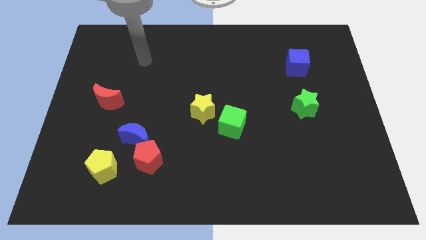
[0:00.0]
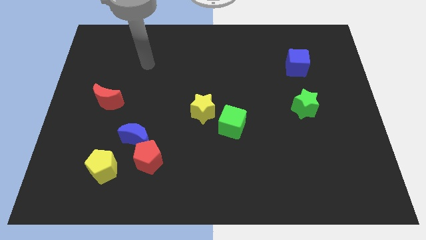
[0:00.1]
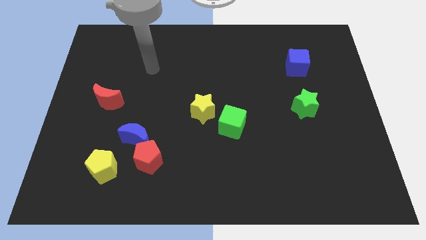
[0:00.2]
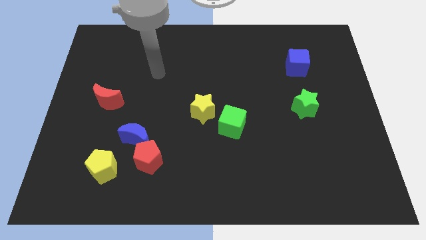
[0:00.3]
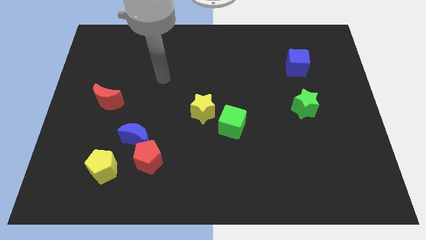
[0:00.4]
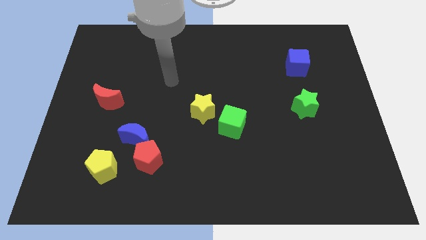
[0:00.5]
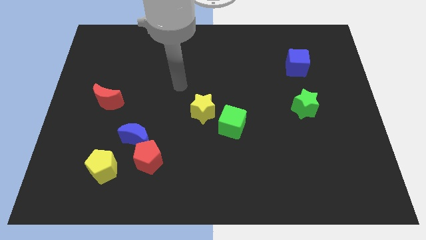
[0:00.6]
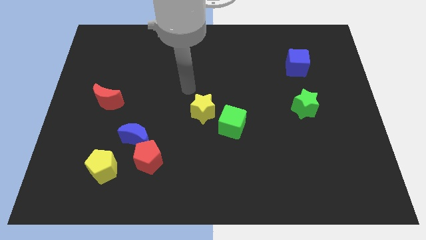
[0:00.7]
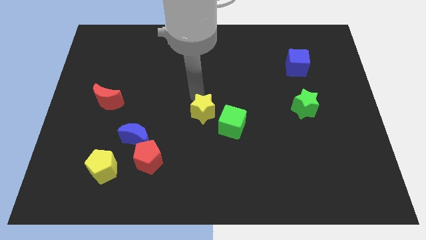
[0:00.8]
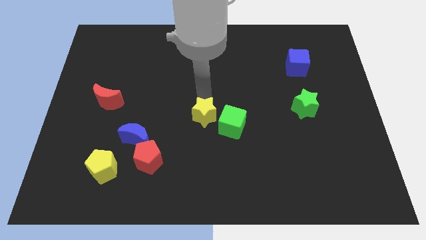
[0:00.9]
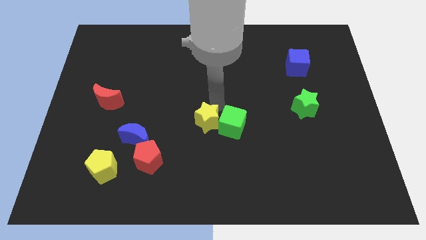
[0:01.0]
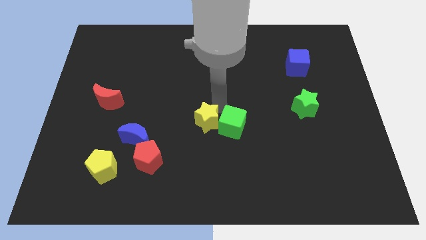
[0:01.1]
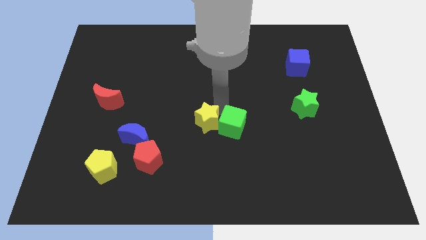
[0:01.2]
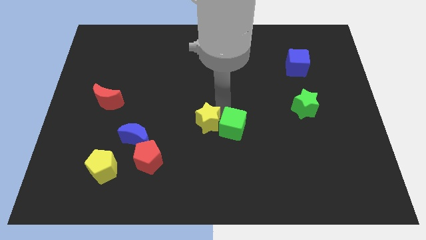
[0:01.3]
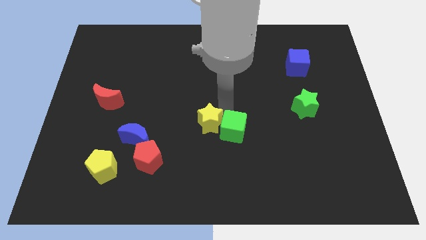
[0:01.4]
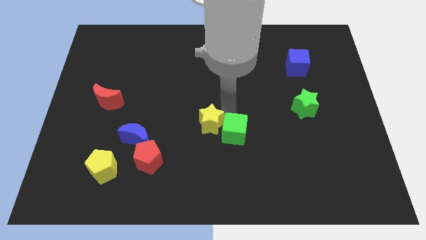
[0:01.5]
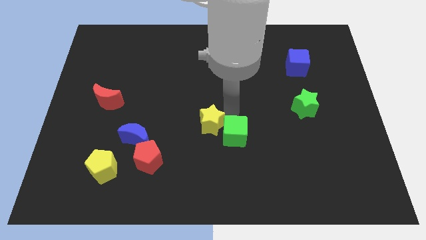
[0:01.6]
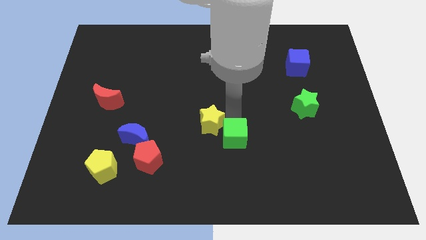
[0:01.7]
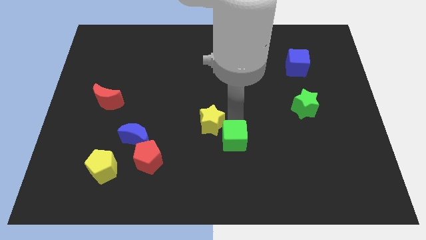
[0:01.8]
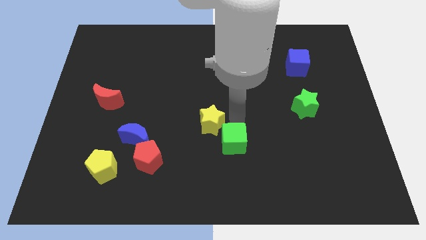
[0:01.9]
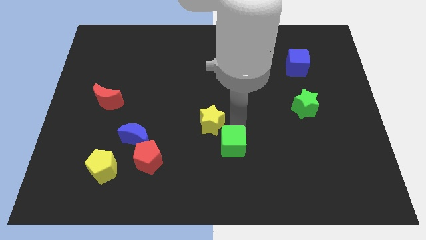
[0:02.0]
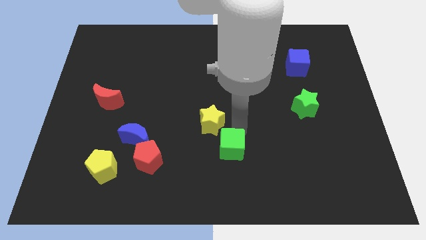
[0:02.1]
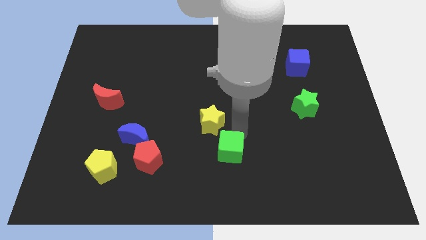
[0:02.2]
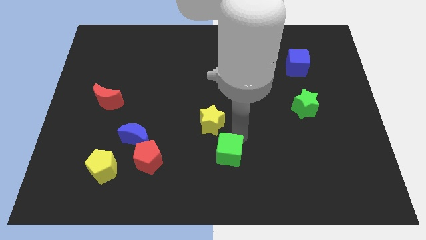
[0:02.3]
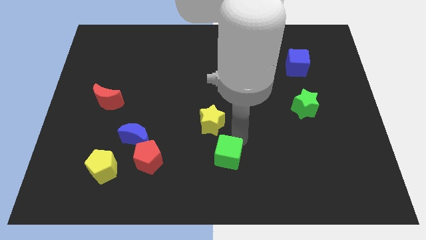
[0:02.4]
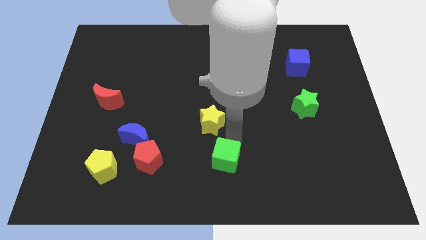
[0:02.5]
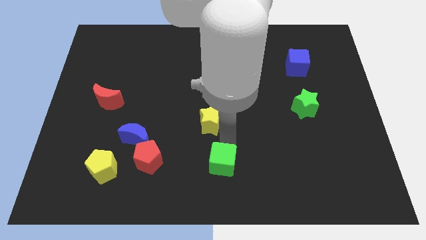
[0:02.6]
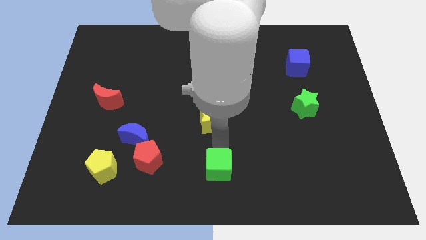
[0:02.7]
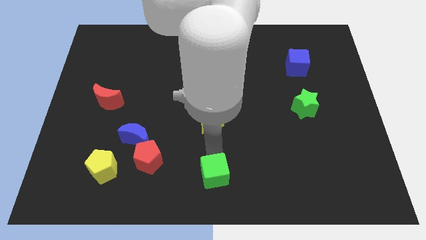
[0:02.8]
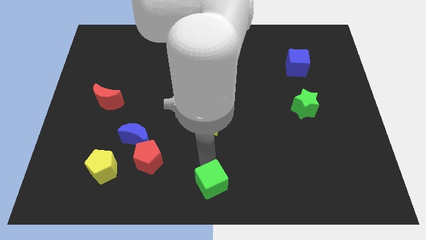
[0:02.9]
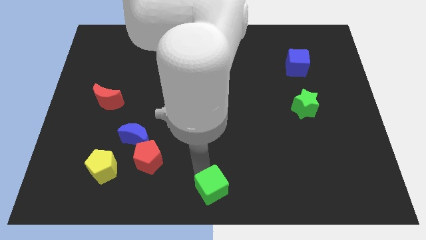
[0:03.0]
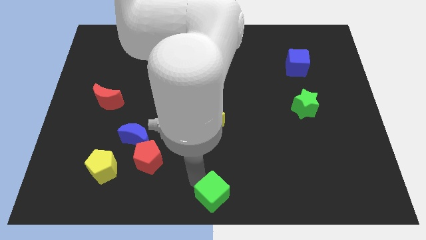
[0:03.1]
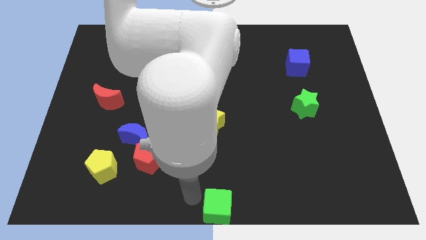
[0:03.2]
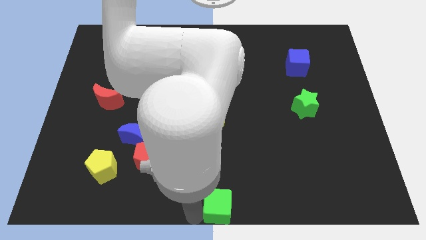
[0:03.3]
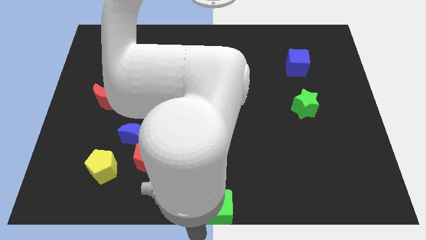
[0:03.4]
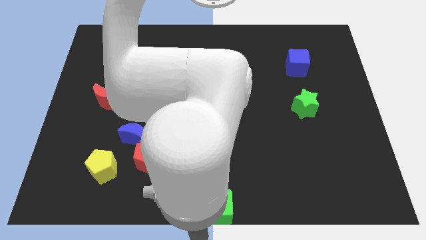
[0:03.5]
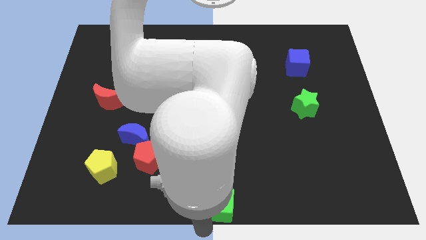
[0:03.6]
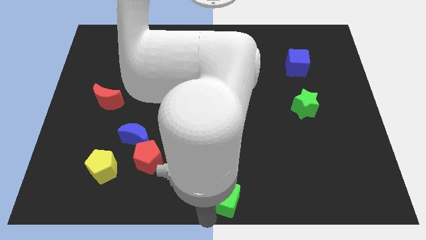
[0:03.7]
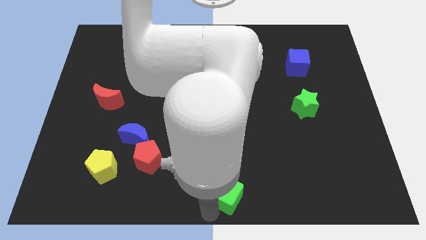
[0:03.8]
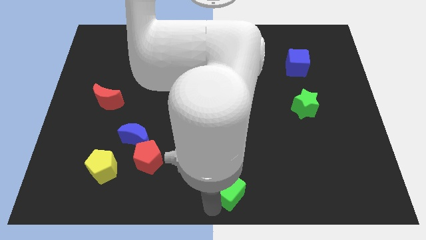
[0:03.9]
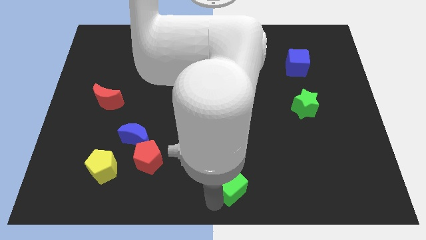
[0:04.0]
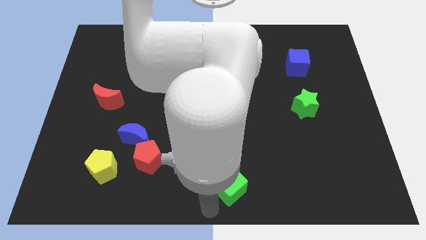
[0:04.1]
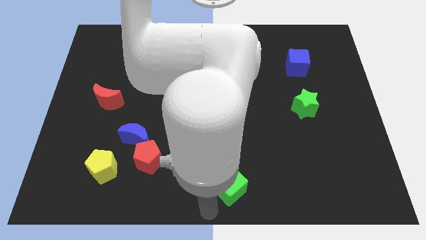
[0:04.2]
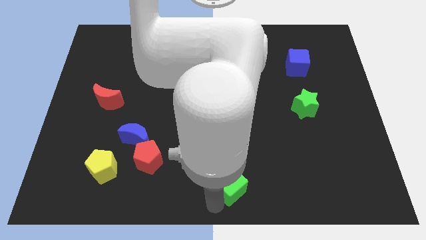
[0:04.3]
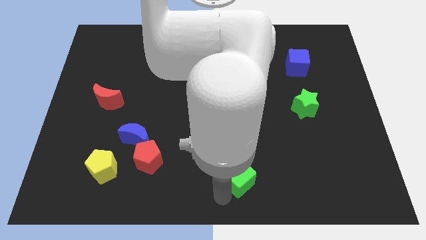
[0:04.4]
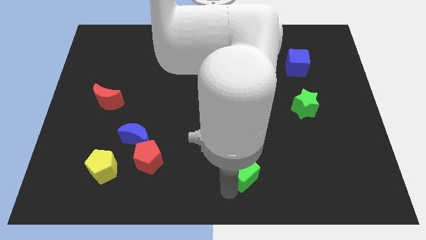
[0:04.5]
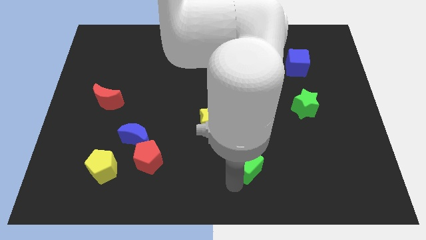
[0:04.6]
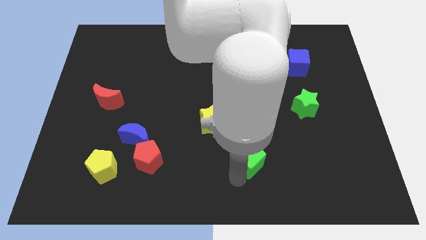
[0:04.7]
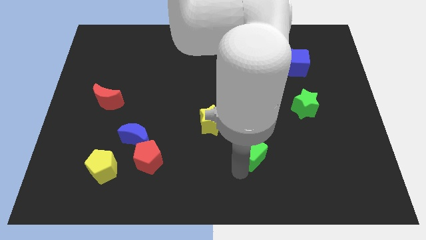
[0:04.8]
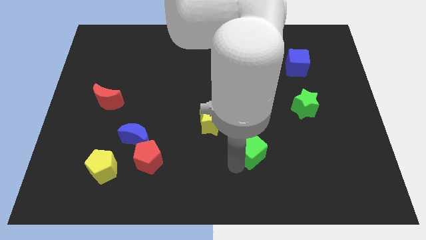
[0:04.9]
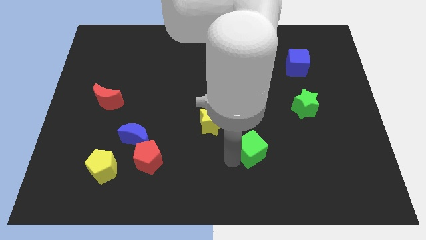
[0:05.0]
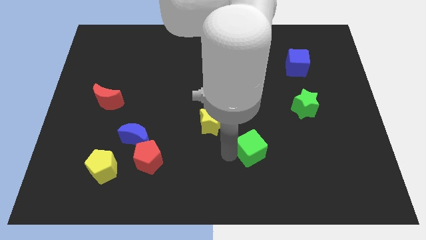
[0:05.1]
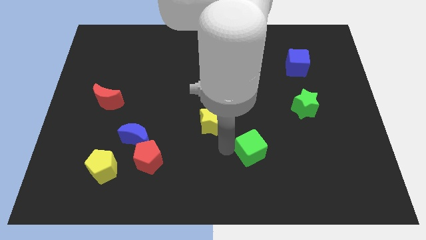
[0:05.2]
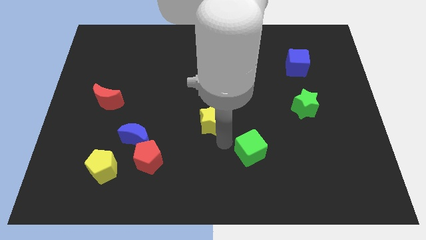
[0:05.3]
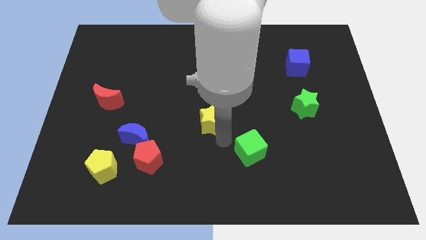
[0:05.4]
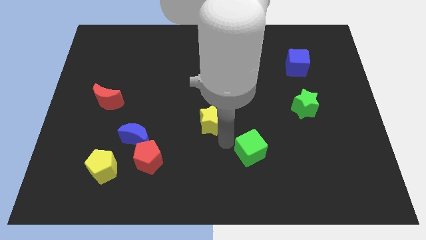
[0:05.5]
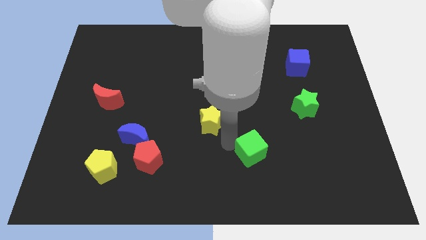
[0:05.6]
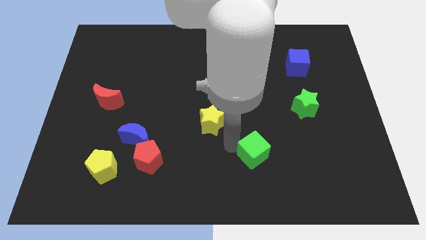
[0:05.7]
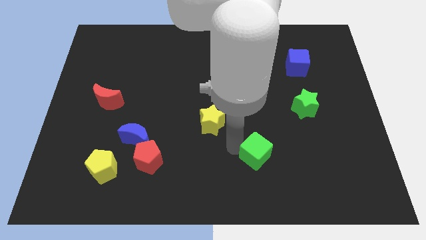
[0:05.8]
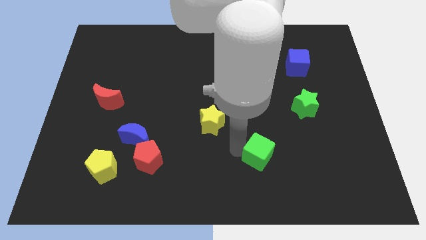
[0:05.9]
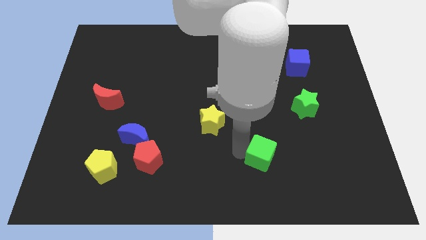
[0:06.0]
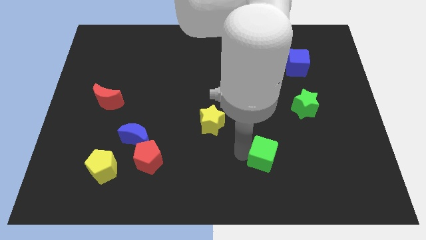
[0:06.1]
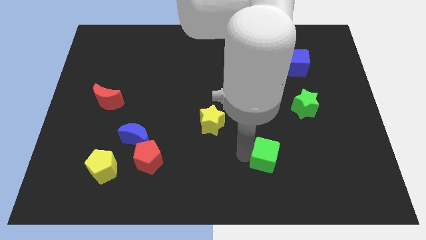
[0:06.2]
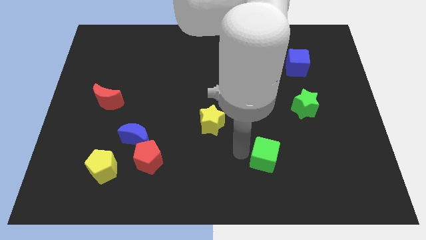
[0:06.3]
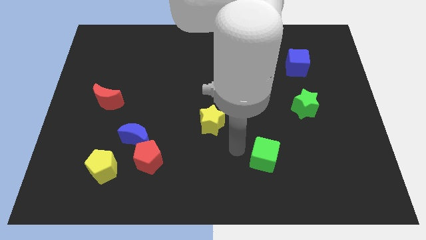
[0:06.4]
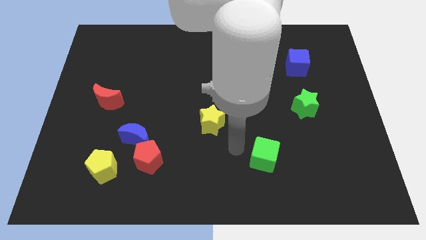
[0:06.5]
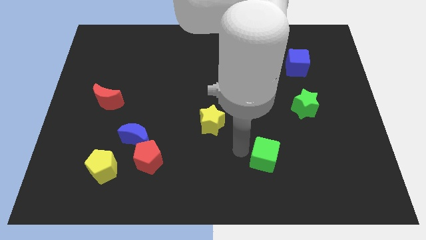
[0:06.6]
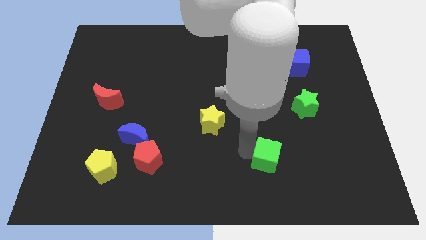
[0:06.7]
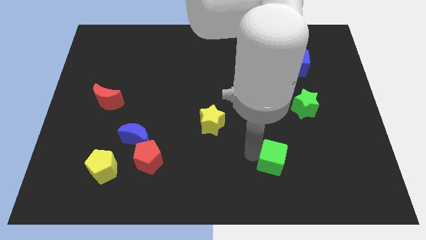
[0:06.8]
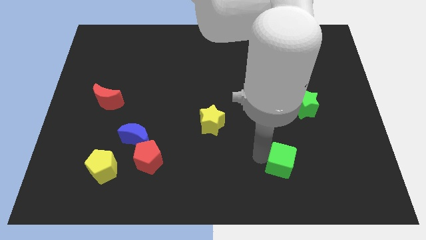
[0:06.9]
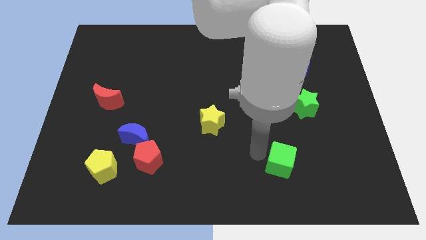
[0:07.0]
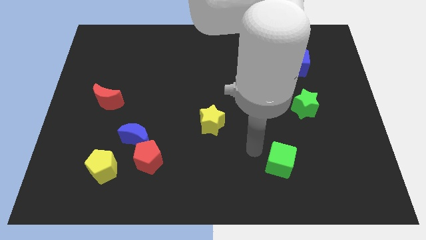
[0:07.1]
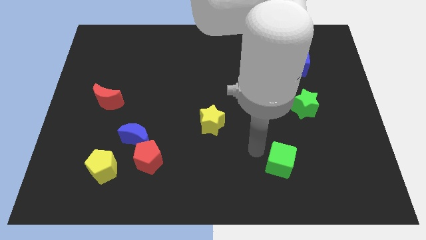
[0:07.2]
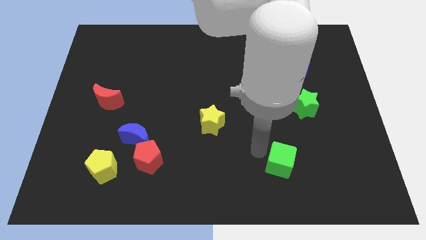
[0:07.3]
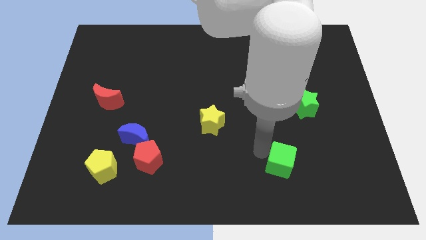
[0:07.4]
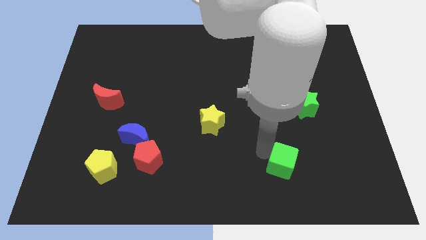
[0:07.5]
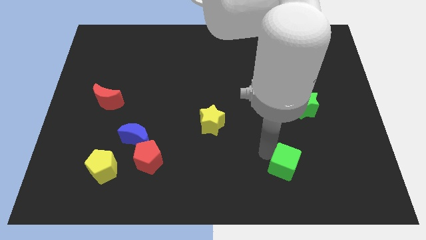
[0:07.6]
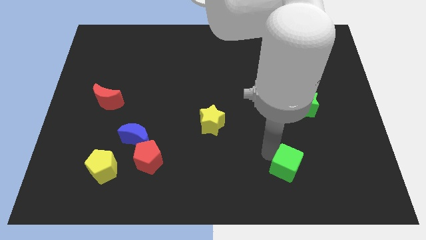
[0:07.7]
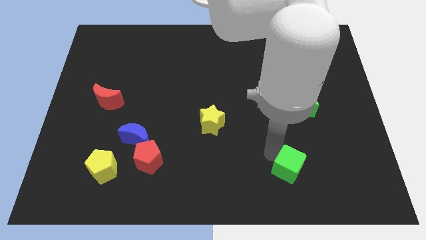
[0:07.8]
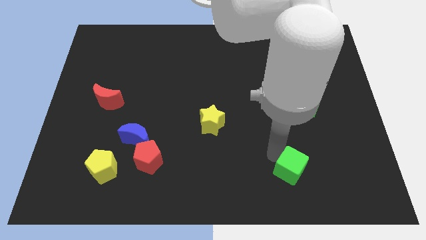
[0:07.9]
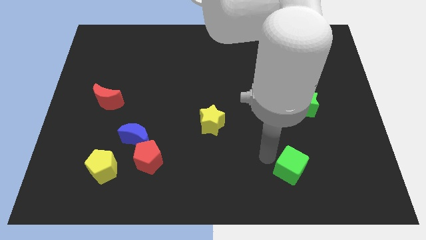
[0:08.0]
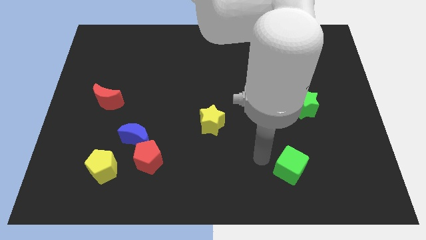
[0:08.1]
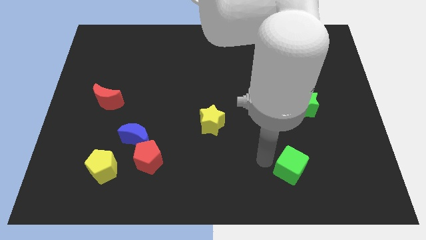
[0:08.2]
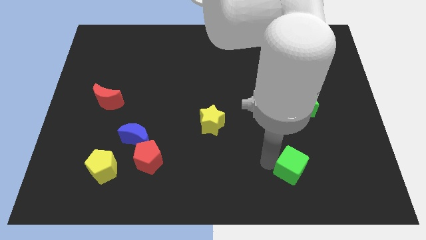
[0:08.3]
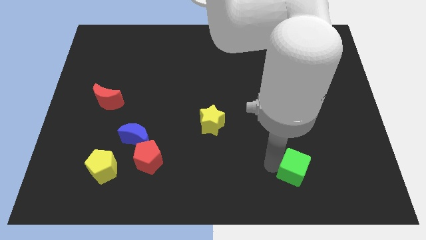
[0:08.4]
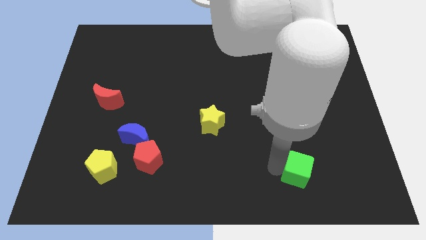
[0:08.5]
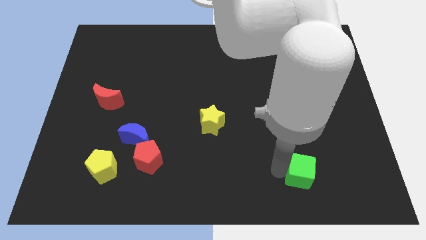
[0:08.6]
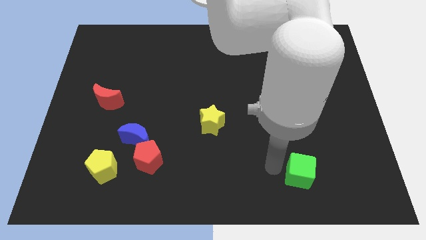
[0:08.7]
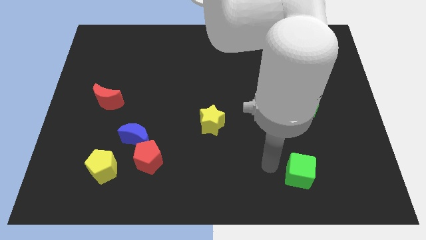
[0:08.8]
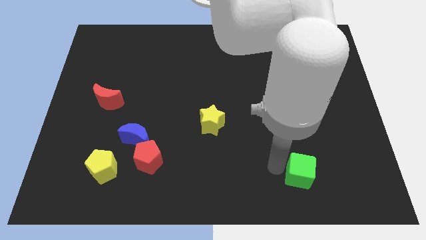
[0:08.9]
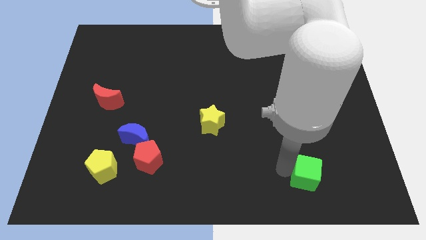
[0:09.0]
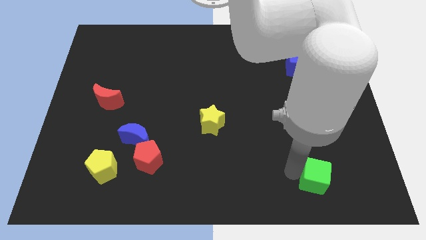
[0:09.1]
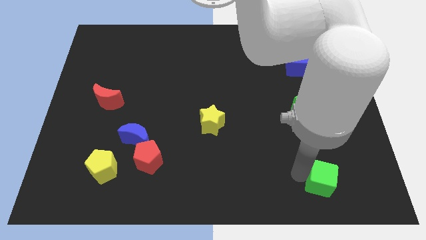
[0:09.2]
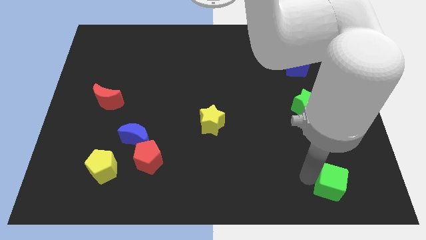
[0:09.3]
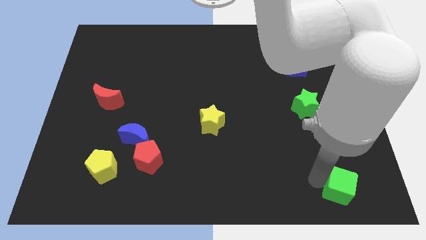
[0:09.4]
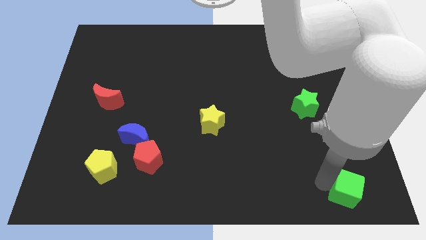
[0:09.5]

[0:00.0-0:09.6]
slide the green cube to the lower right corner
